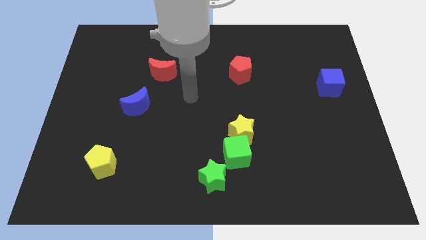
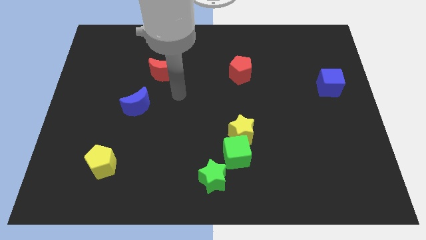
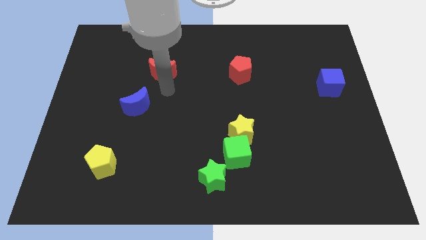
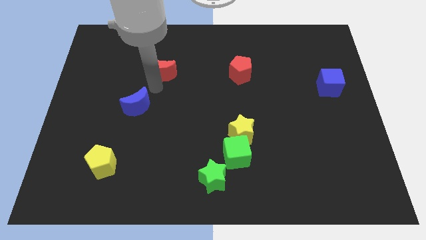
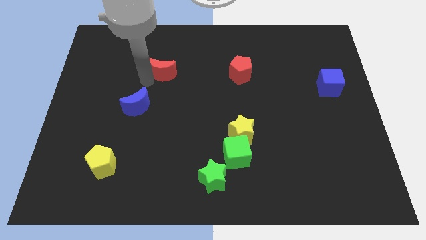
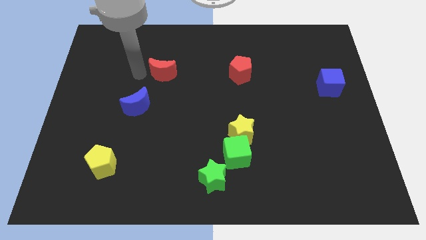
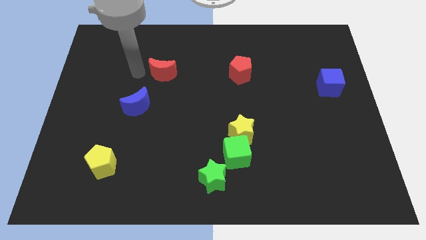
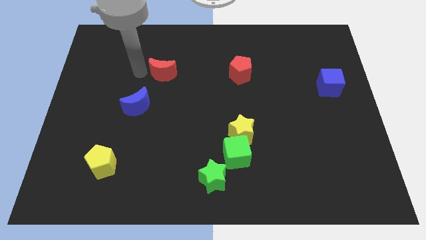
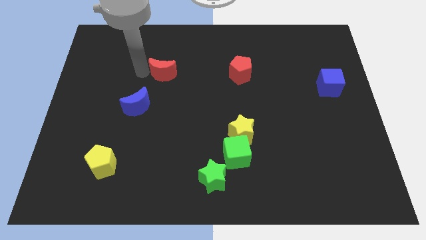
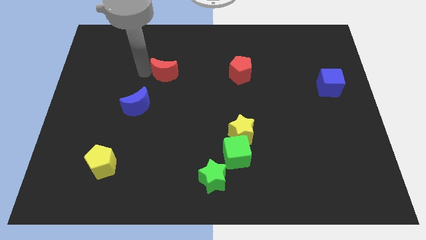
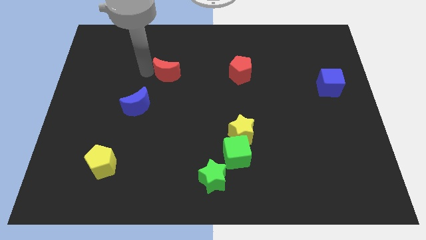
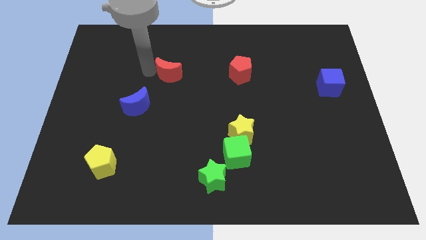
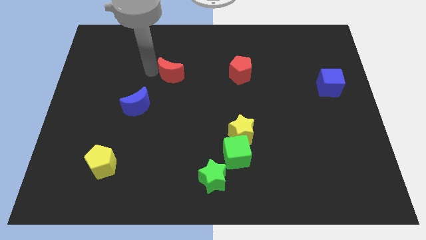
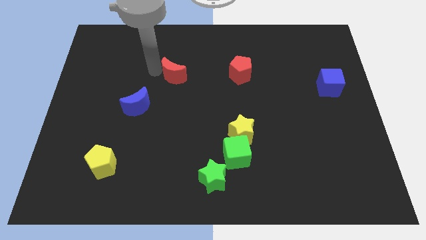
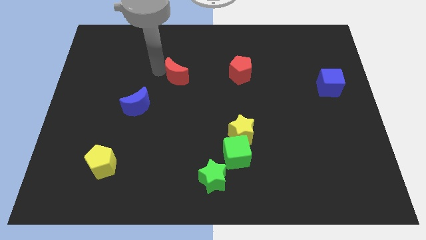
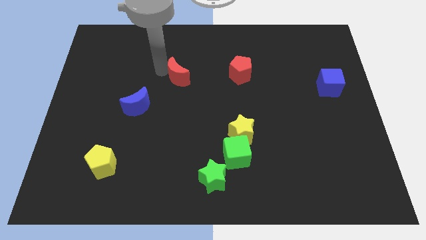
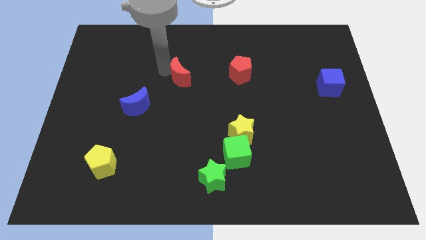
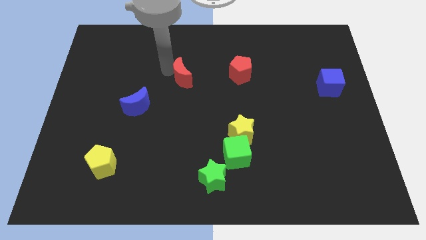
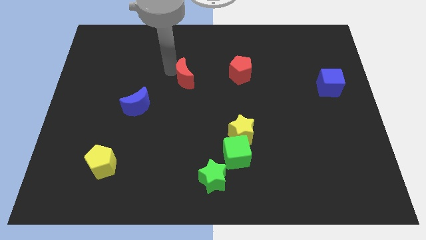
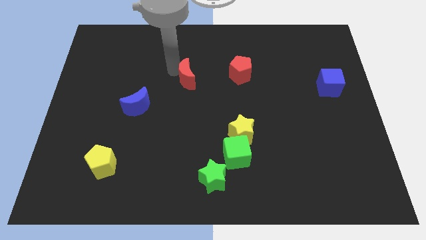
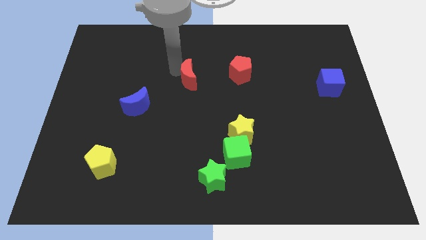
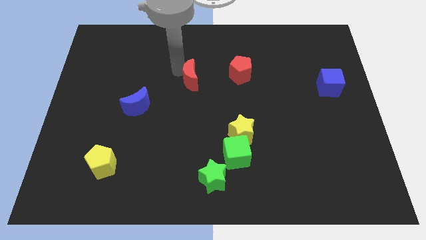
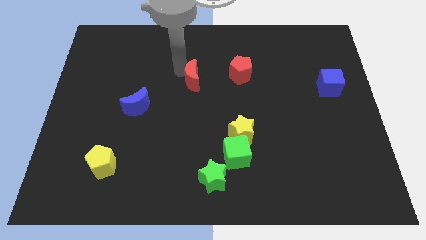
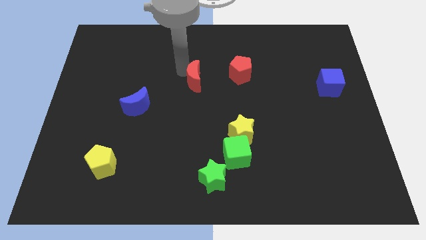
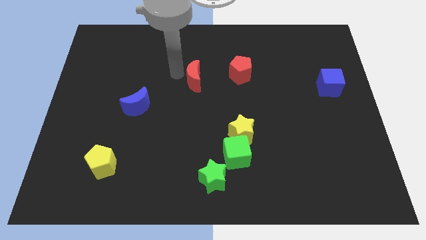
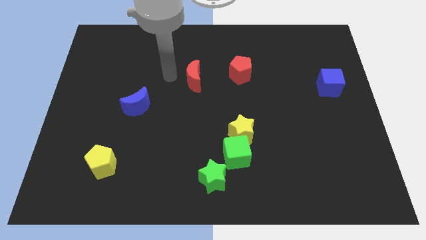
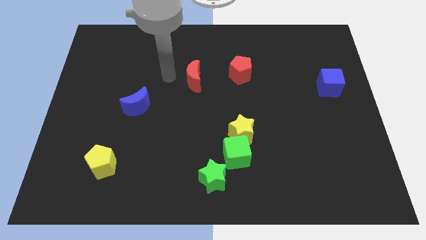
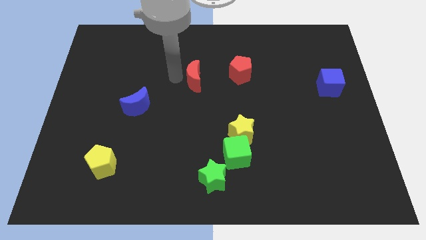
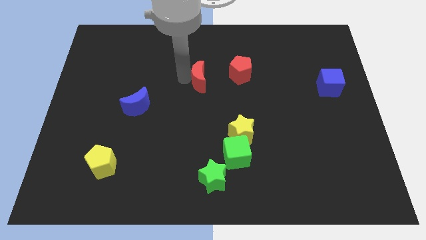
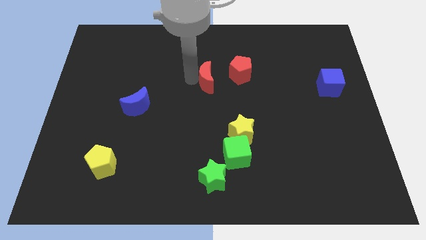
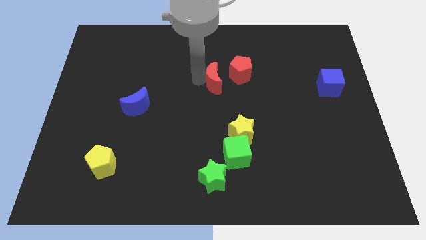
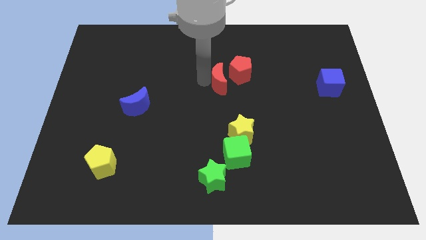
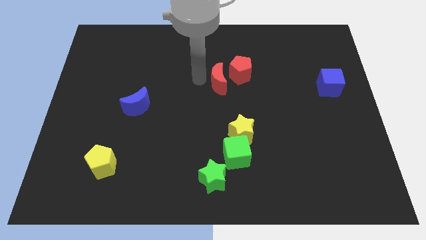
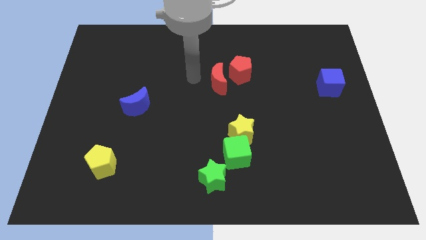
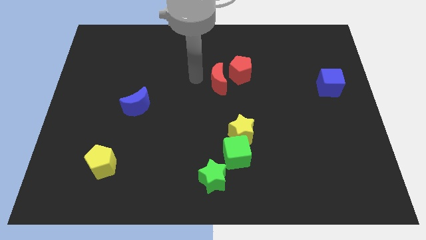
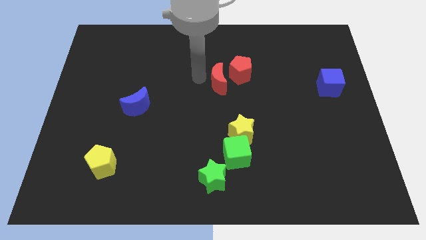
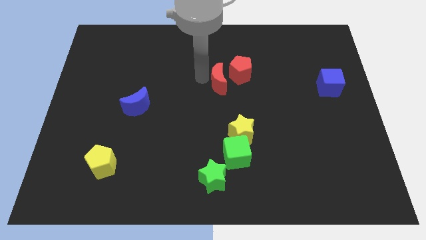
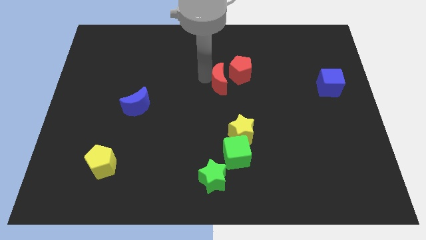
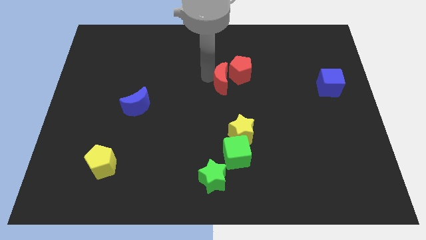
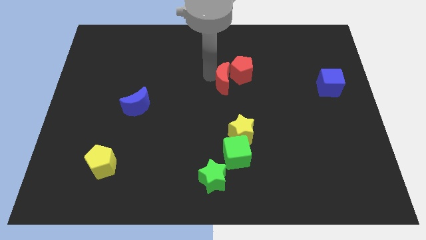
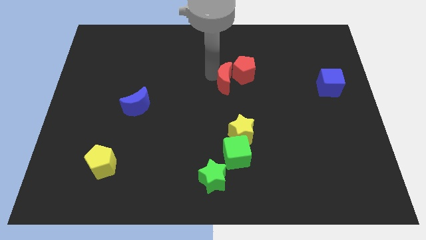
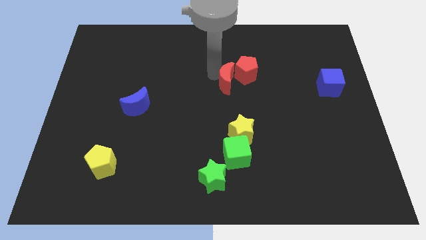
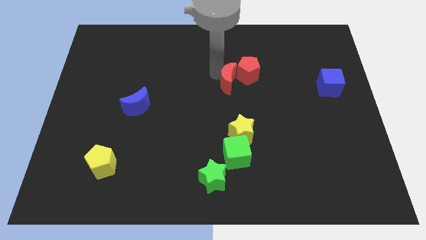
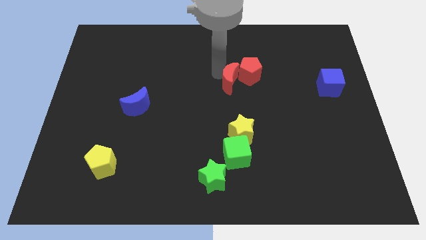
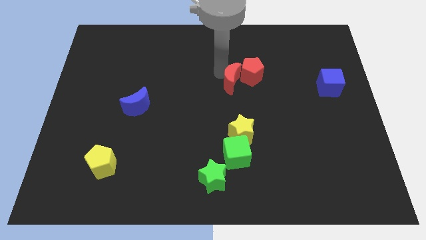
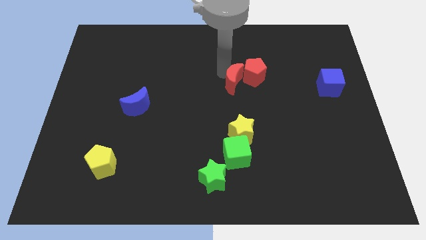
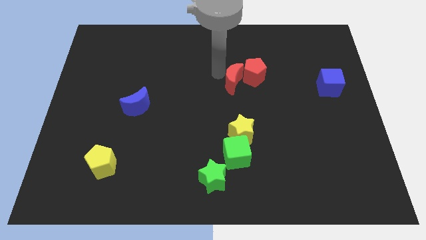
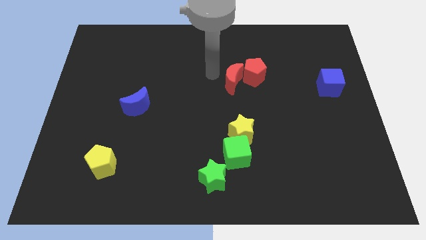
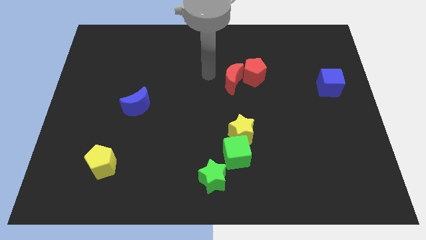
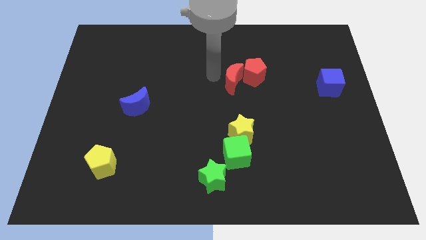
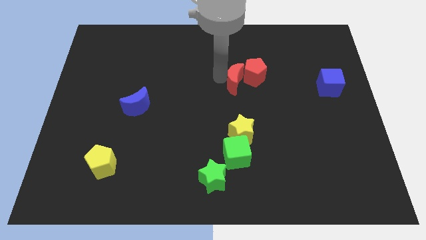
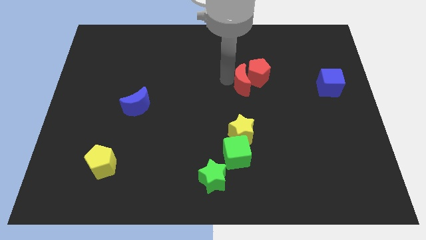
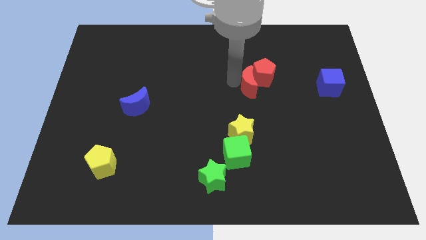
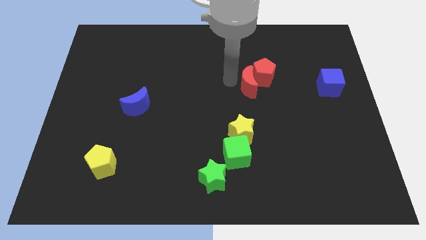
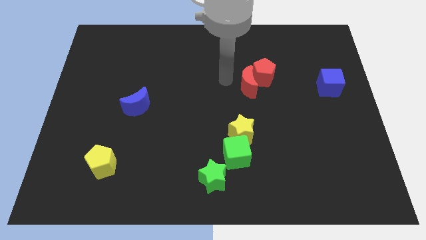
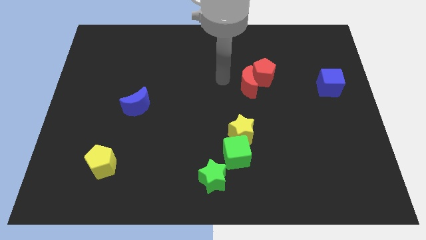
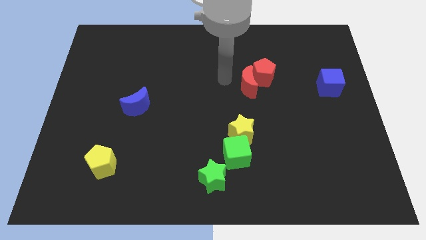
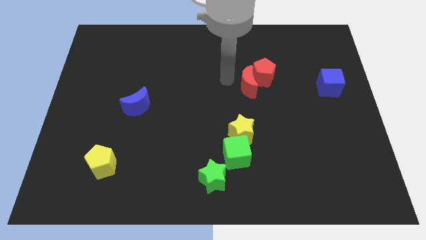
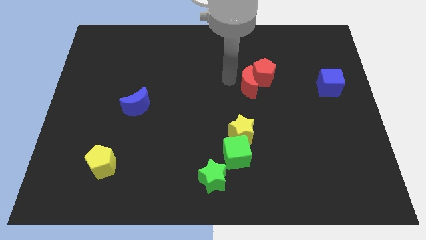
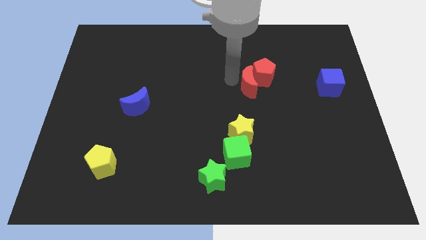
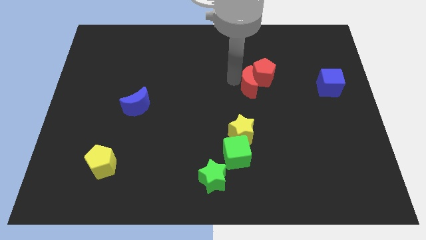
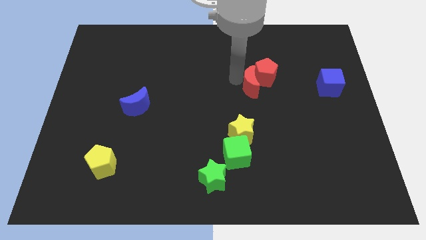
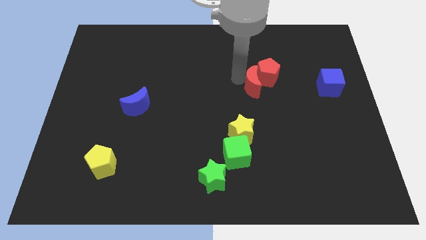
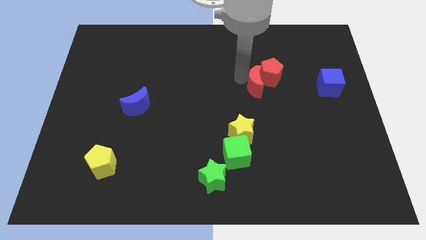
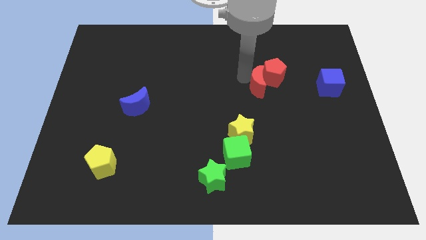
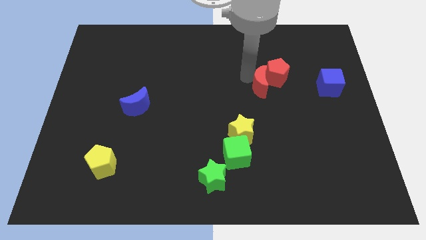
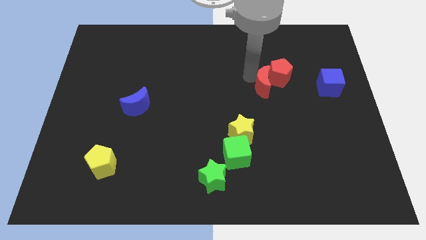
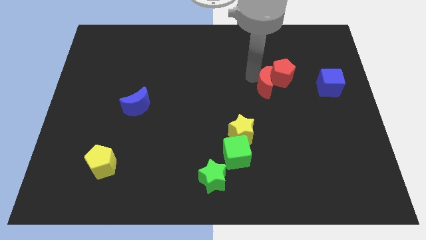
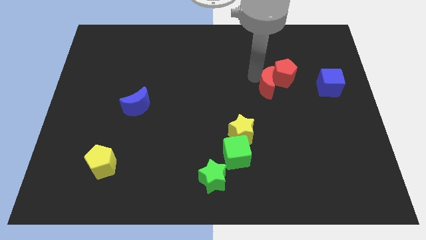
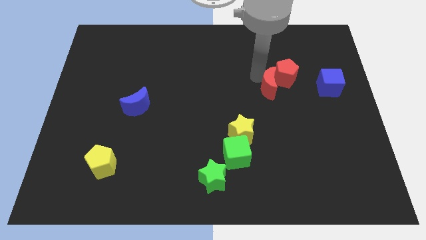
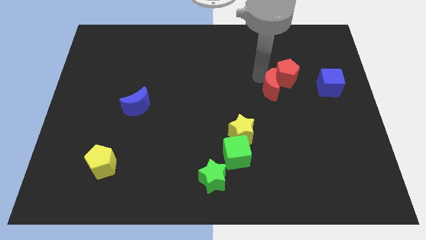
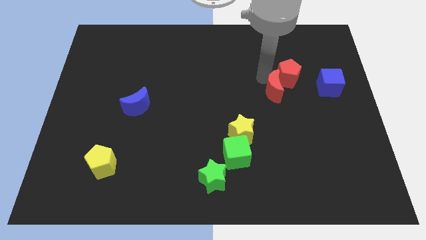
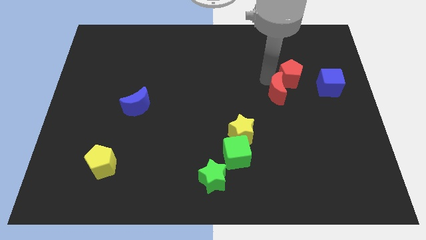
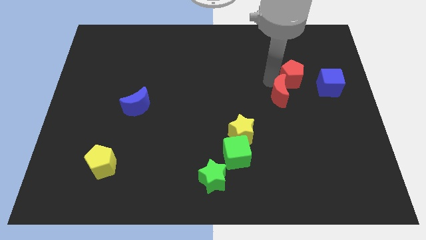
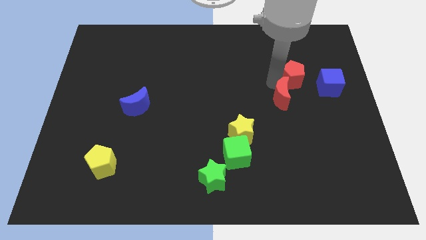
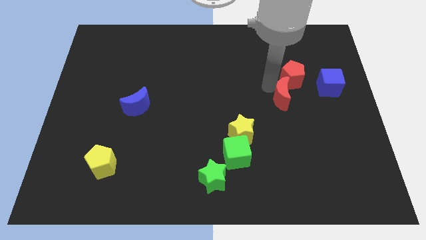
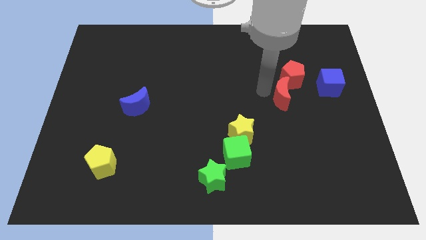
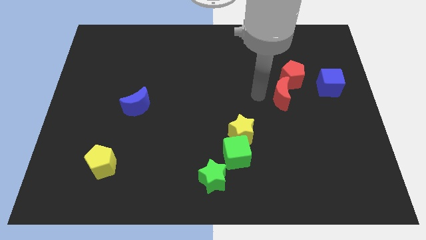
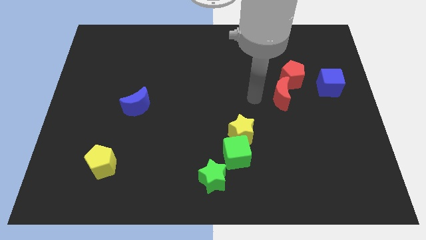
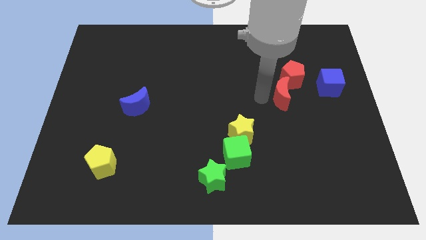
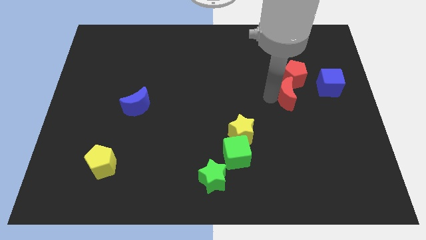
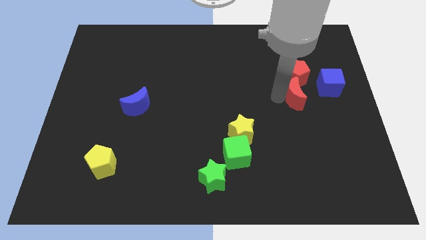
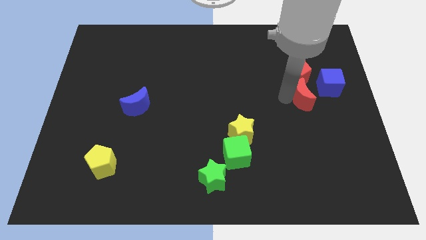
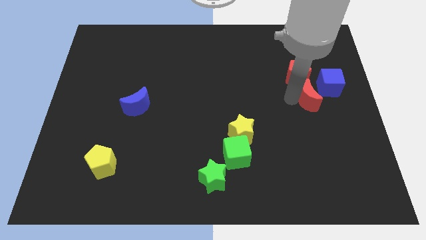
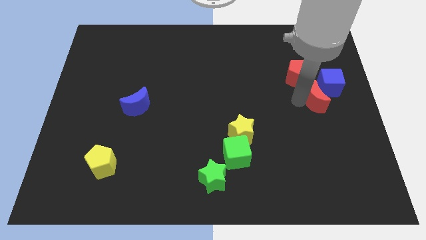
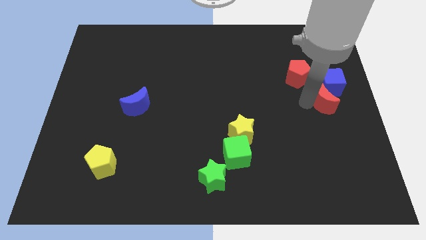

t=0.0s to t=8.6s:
slide the red moon close to the blue cube
